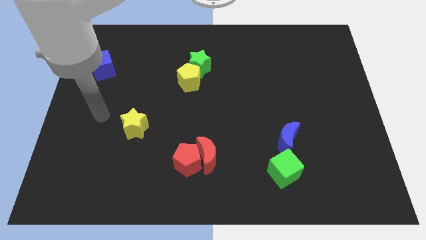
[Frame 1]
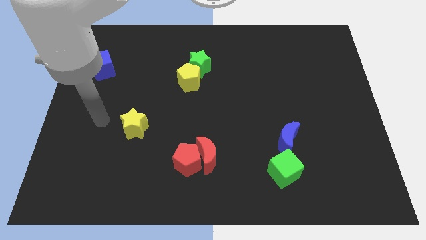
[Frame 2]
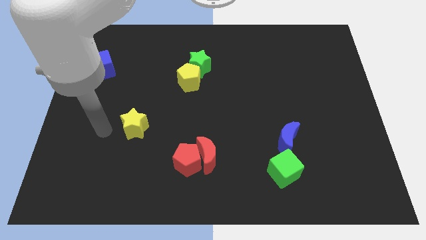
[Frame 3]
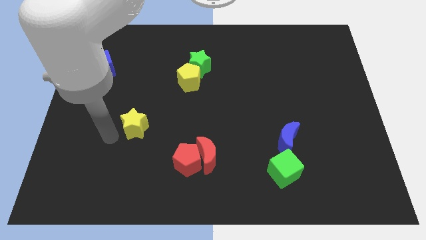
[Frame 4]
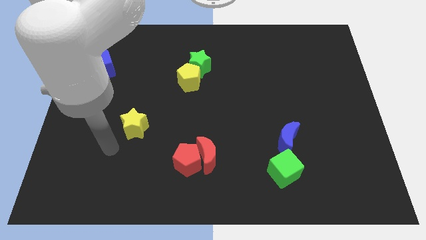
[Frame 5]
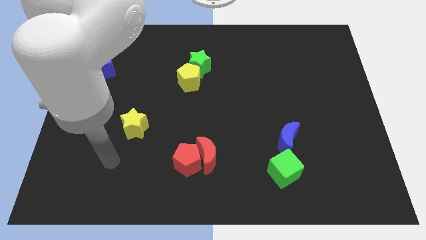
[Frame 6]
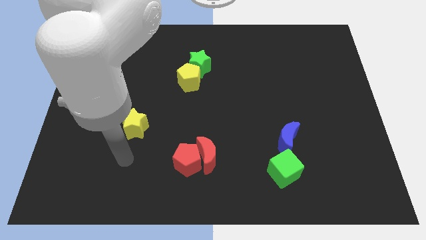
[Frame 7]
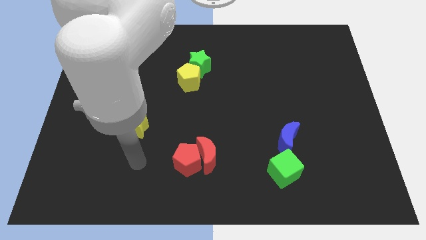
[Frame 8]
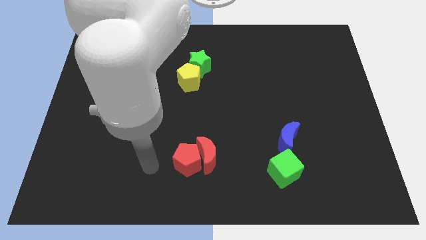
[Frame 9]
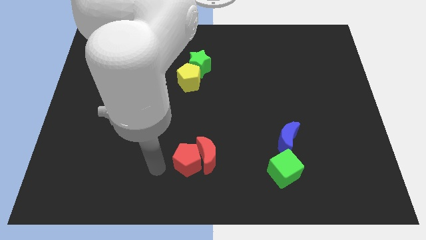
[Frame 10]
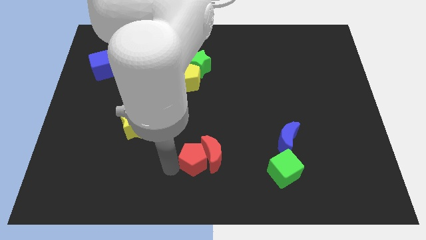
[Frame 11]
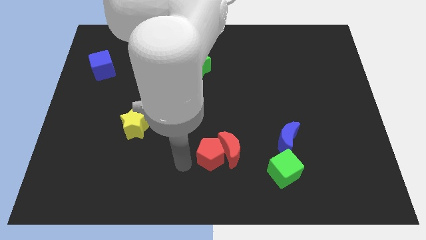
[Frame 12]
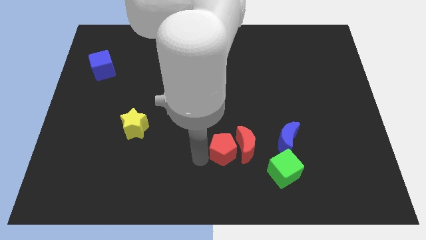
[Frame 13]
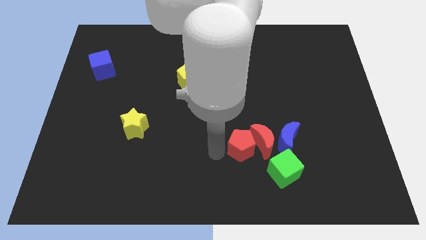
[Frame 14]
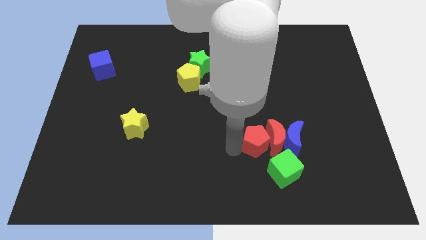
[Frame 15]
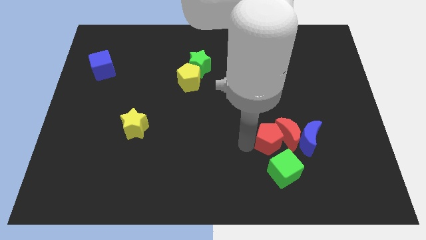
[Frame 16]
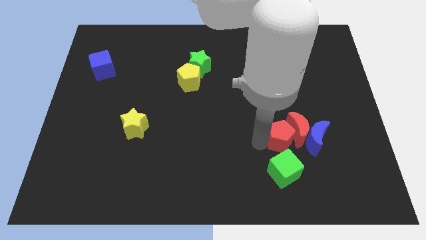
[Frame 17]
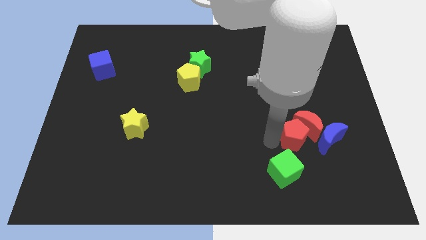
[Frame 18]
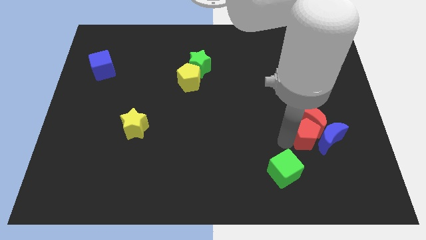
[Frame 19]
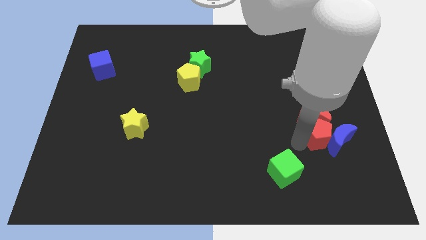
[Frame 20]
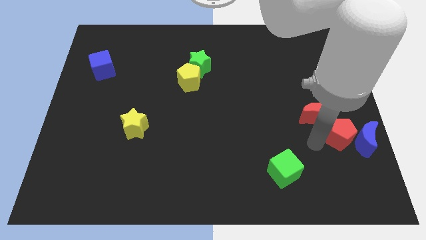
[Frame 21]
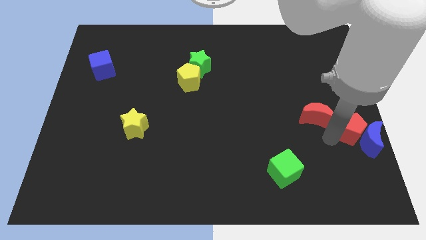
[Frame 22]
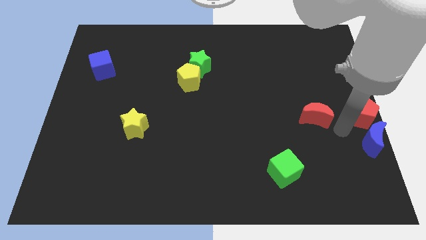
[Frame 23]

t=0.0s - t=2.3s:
separate the red moon from the red pentagon

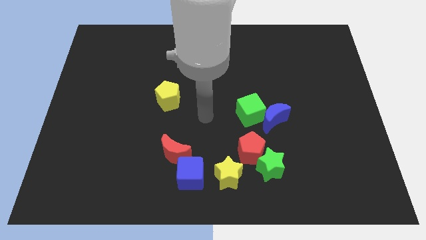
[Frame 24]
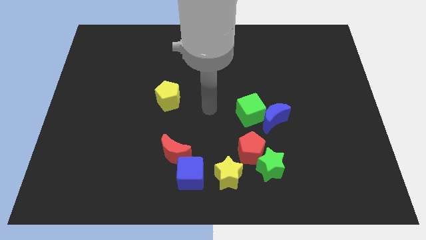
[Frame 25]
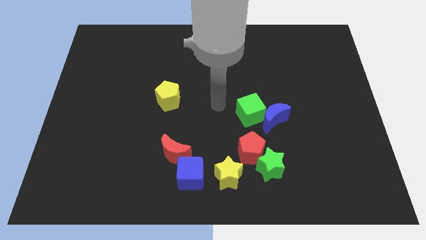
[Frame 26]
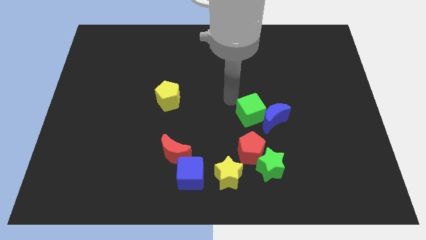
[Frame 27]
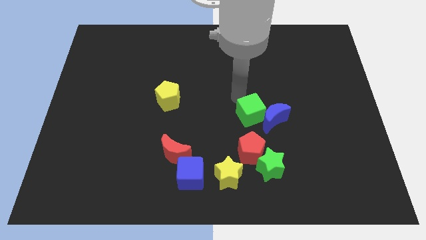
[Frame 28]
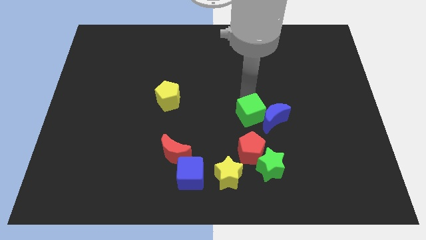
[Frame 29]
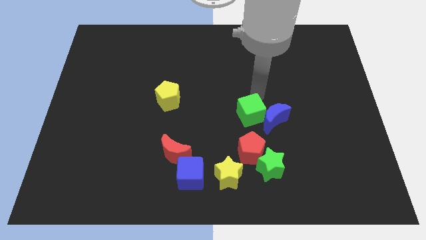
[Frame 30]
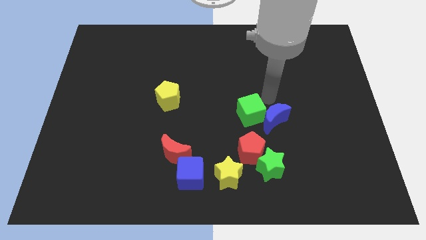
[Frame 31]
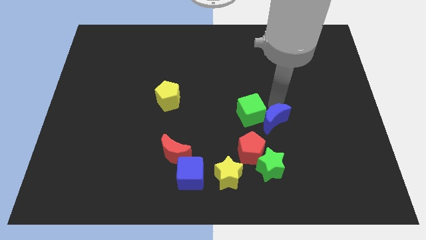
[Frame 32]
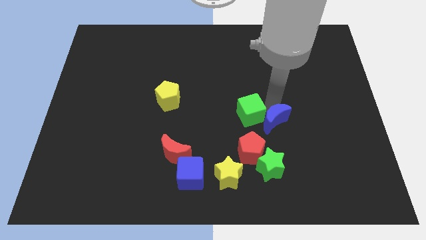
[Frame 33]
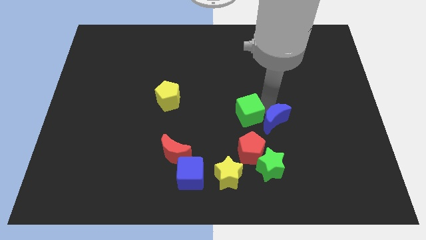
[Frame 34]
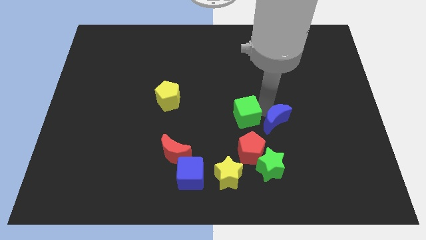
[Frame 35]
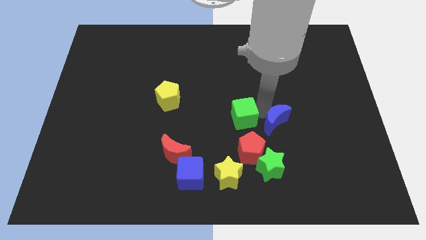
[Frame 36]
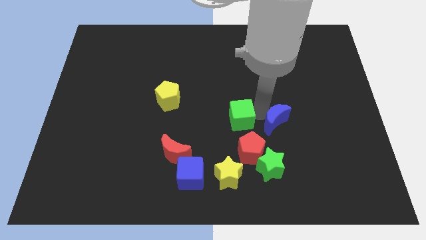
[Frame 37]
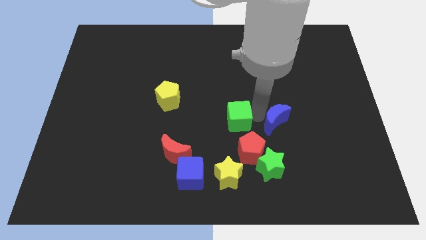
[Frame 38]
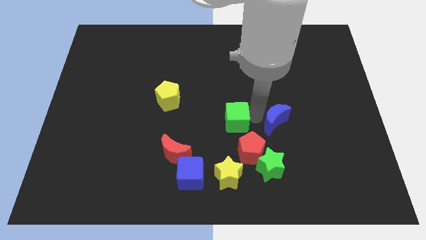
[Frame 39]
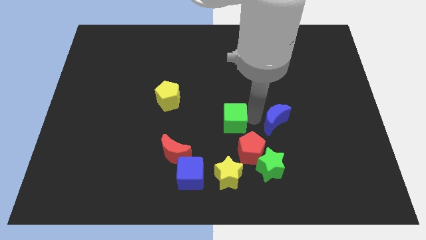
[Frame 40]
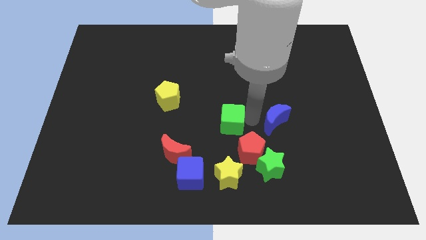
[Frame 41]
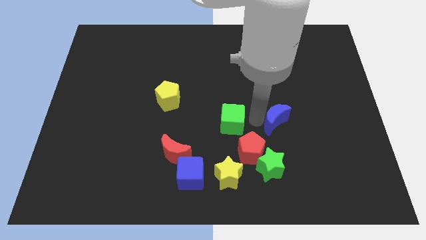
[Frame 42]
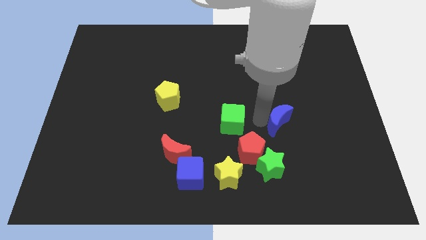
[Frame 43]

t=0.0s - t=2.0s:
move the green cube away from the blue moon

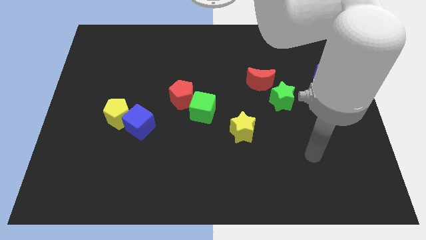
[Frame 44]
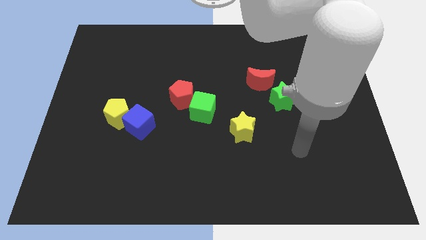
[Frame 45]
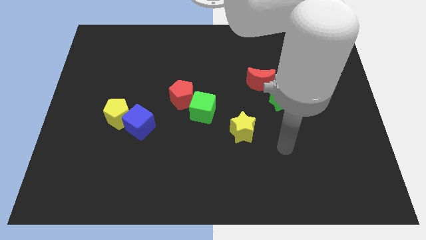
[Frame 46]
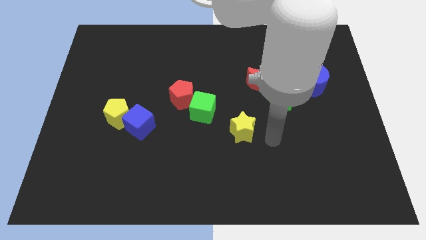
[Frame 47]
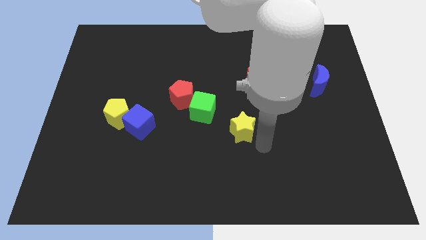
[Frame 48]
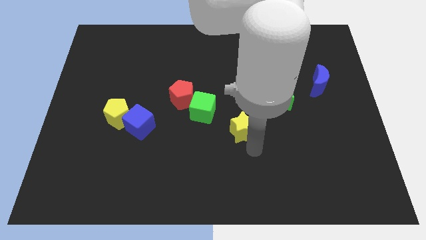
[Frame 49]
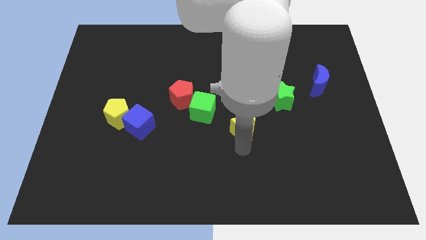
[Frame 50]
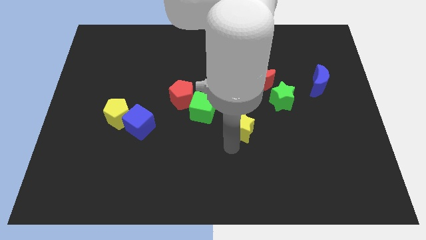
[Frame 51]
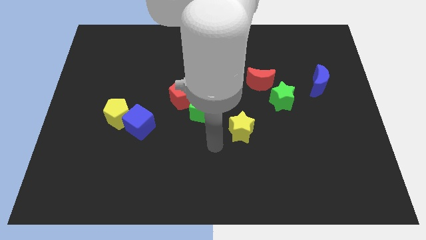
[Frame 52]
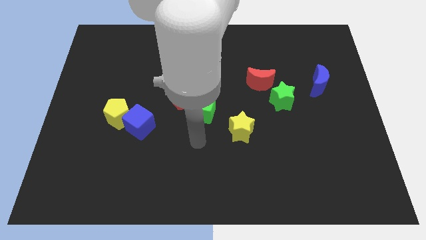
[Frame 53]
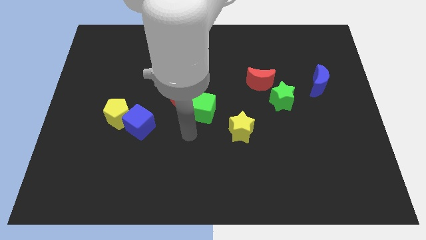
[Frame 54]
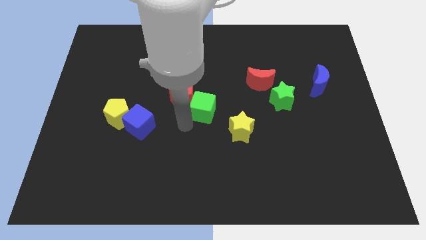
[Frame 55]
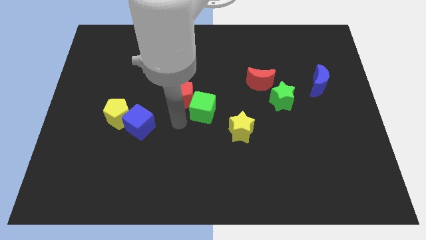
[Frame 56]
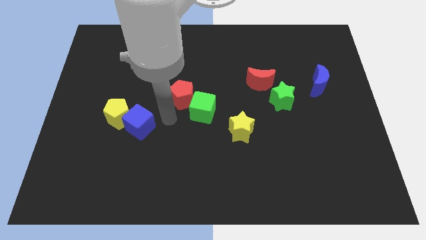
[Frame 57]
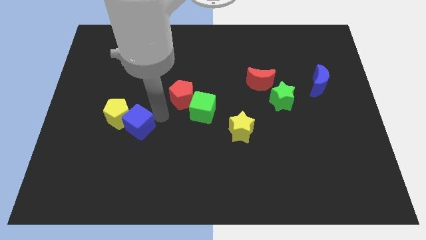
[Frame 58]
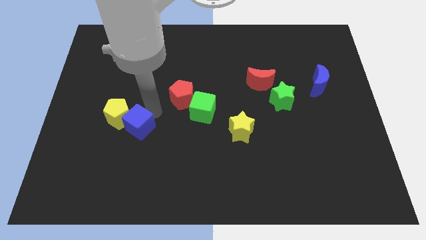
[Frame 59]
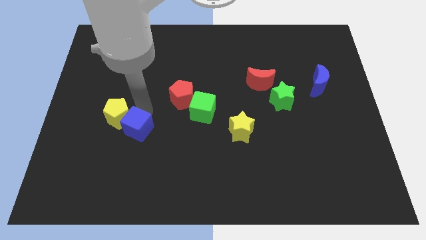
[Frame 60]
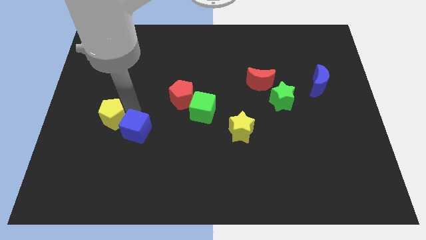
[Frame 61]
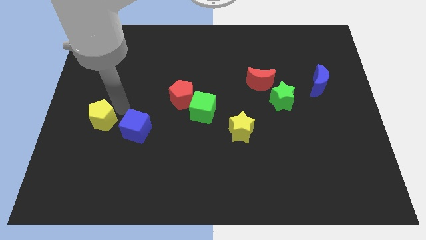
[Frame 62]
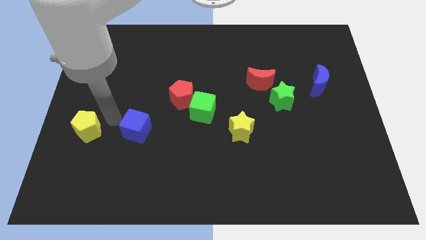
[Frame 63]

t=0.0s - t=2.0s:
move the blue cube away from the yellow pentagon

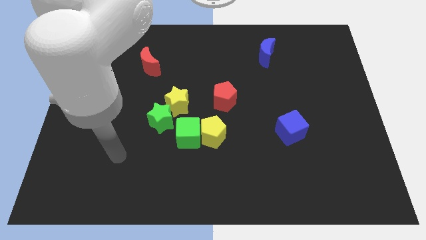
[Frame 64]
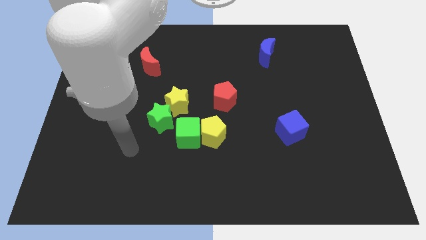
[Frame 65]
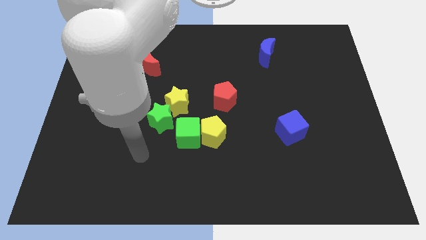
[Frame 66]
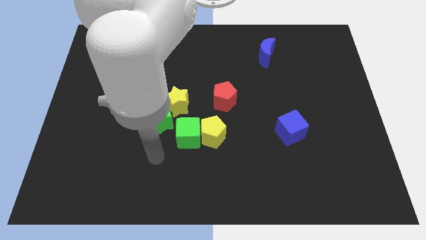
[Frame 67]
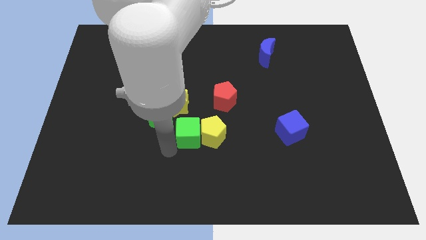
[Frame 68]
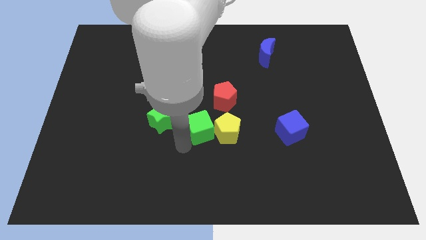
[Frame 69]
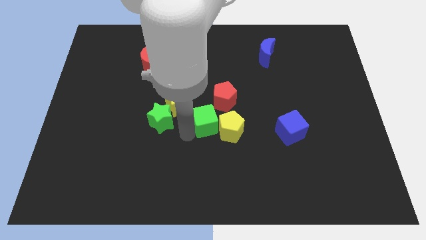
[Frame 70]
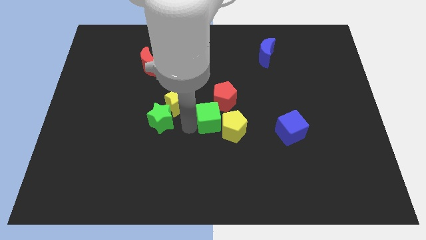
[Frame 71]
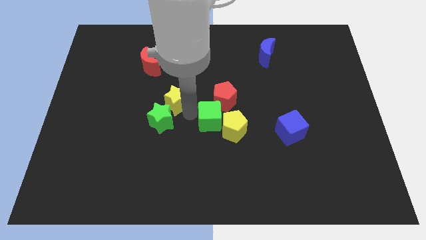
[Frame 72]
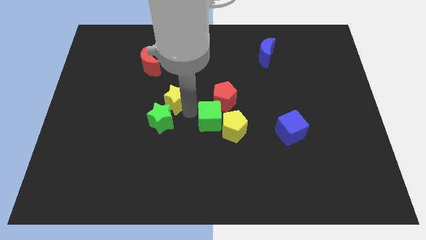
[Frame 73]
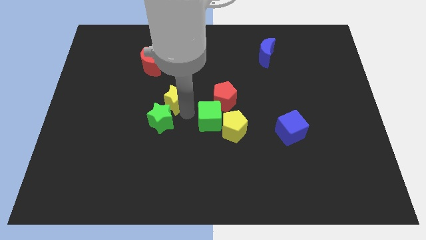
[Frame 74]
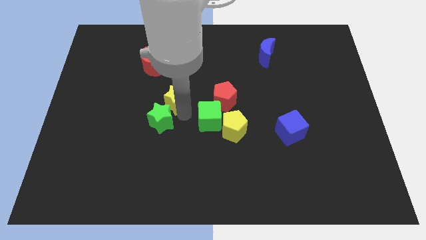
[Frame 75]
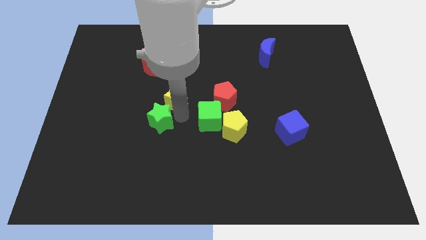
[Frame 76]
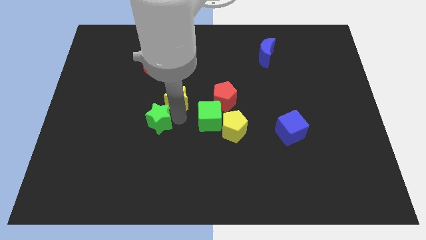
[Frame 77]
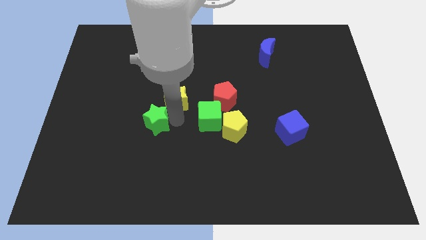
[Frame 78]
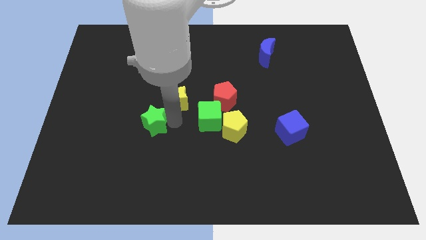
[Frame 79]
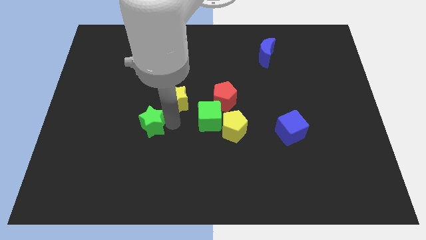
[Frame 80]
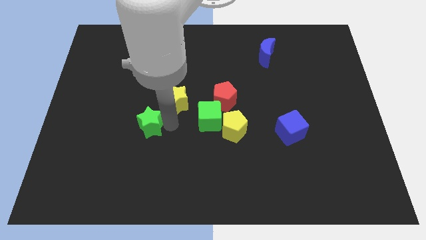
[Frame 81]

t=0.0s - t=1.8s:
separate the green star from the yellow star and green cube

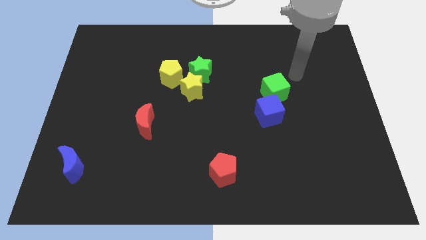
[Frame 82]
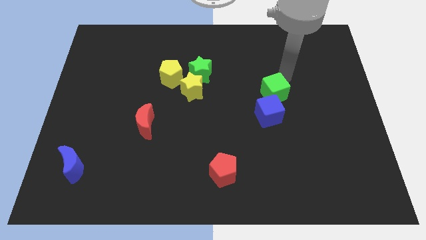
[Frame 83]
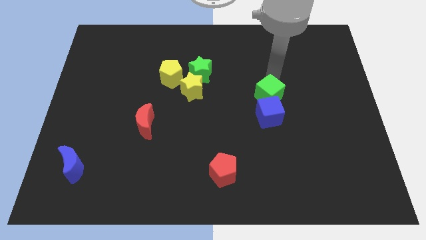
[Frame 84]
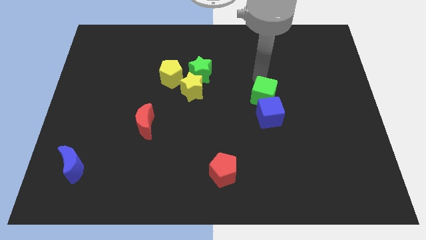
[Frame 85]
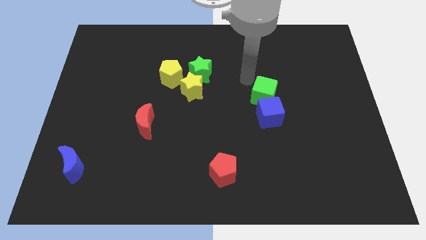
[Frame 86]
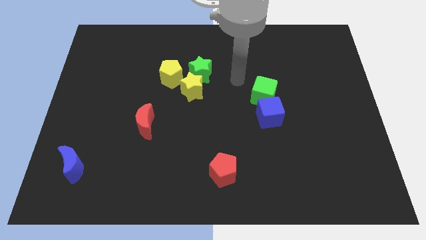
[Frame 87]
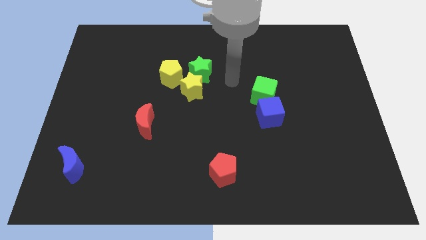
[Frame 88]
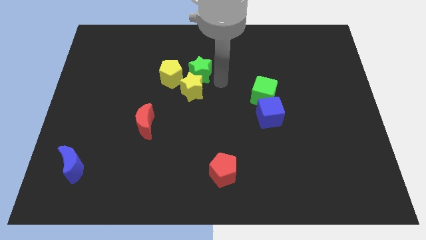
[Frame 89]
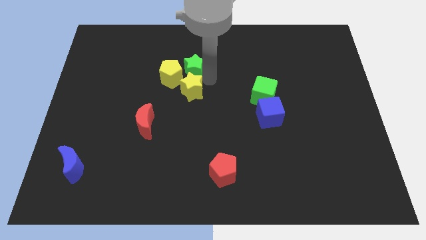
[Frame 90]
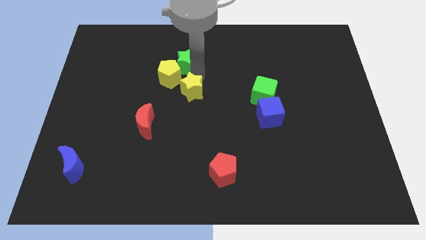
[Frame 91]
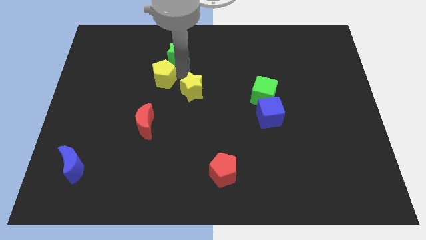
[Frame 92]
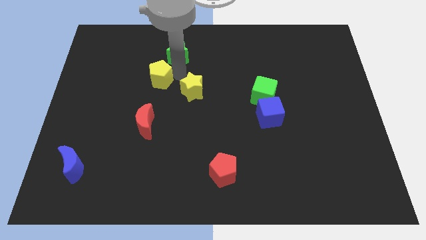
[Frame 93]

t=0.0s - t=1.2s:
pull the yellow star apart from the green star and yellow pentagon
